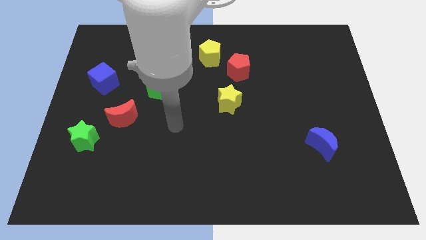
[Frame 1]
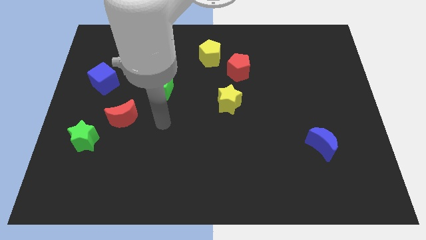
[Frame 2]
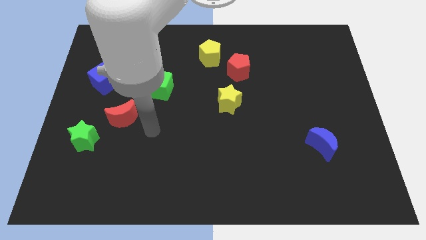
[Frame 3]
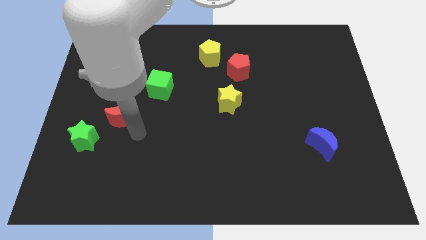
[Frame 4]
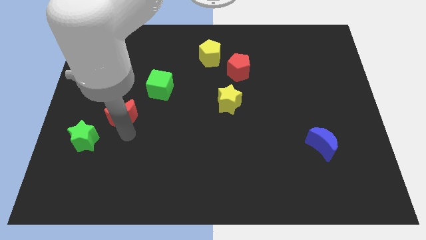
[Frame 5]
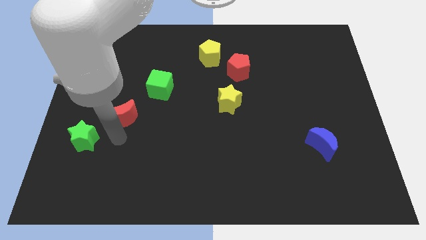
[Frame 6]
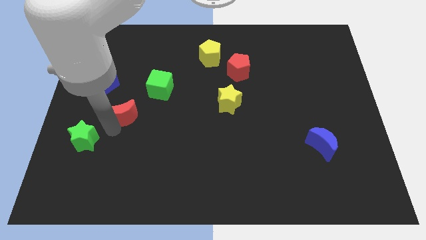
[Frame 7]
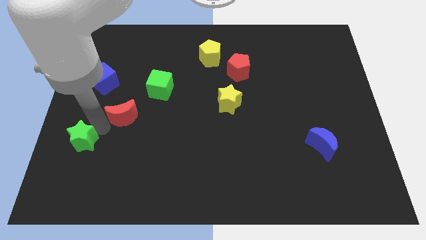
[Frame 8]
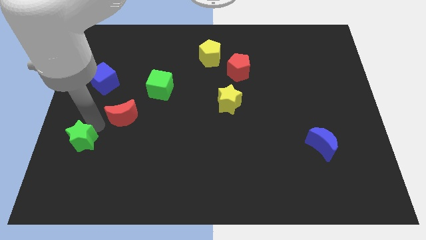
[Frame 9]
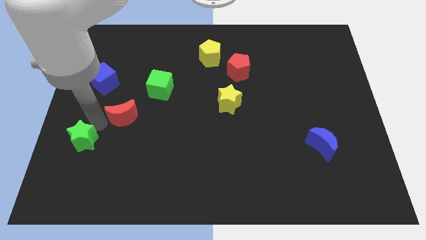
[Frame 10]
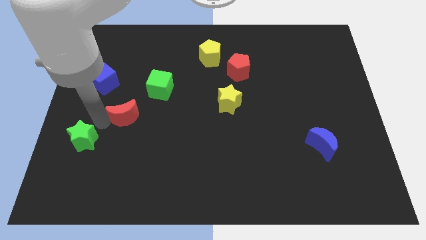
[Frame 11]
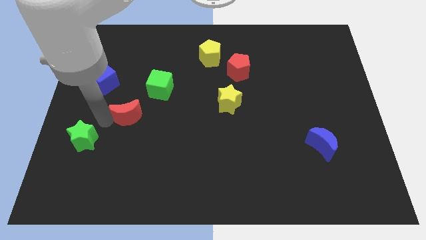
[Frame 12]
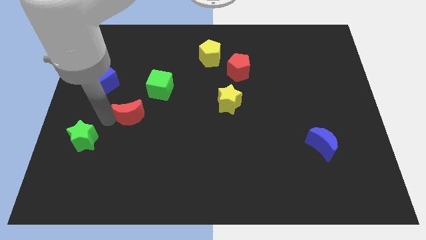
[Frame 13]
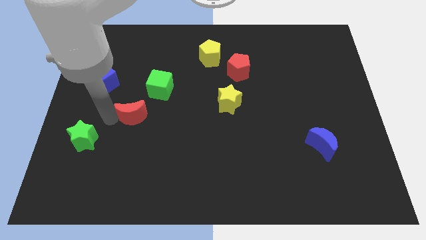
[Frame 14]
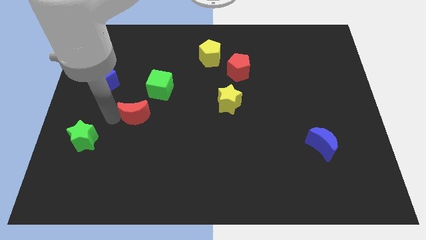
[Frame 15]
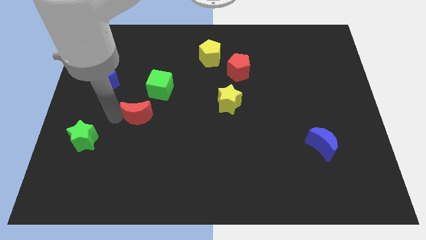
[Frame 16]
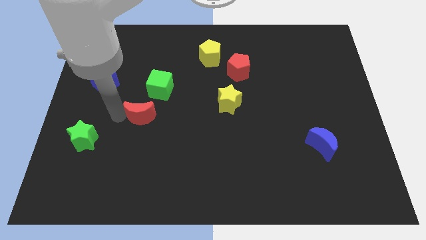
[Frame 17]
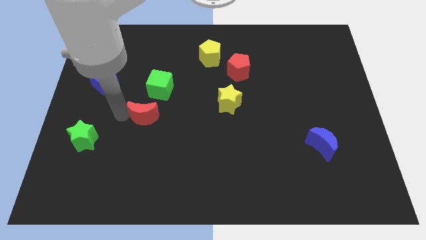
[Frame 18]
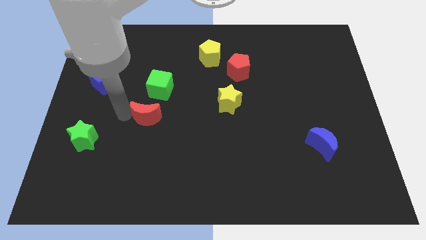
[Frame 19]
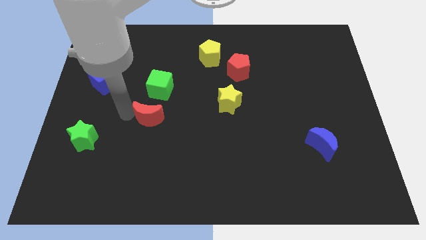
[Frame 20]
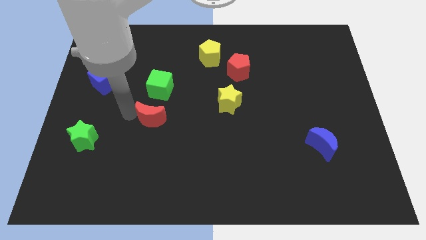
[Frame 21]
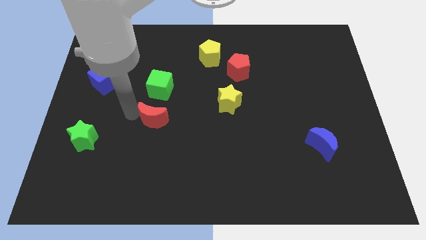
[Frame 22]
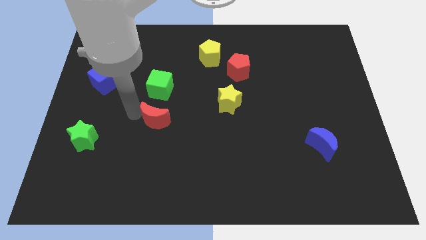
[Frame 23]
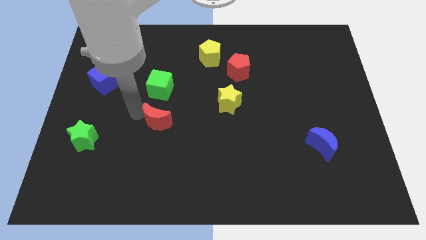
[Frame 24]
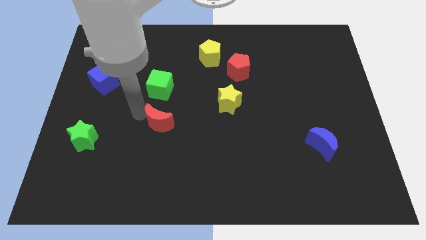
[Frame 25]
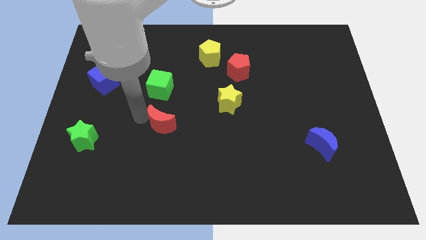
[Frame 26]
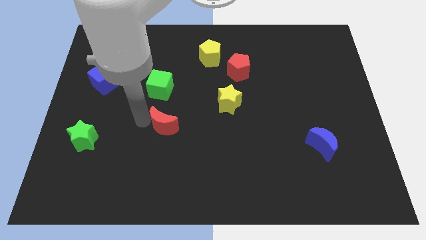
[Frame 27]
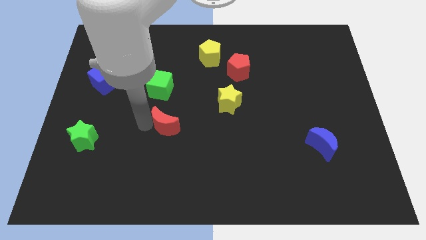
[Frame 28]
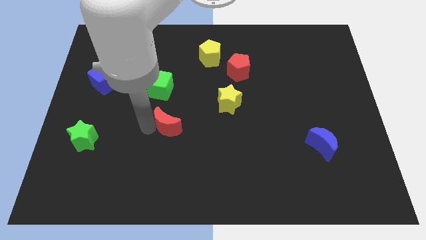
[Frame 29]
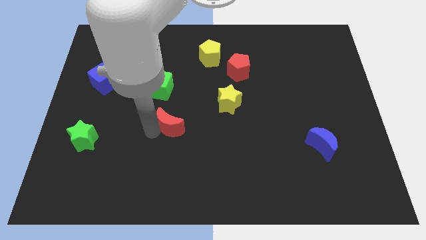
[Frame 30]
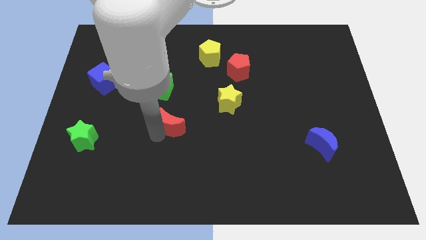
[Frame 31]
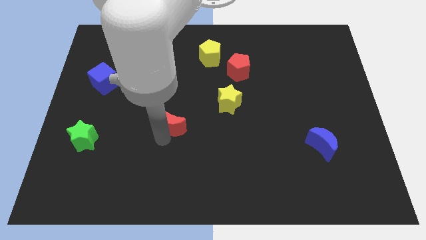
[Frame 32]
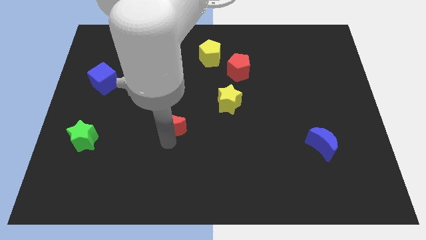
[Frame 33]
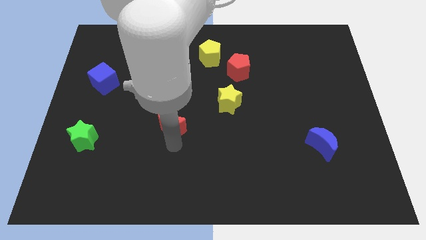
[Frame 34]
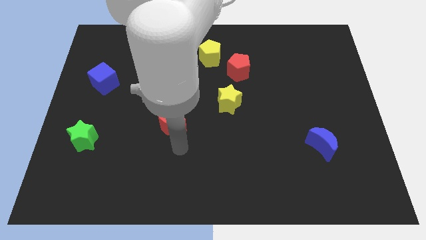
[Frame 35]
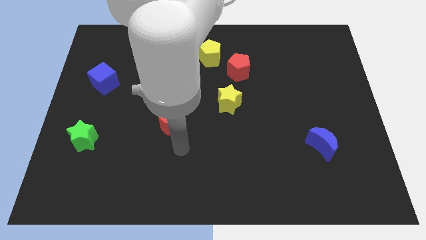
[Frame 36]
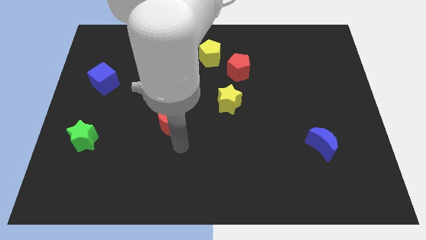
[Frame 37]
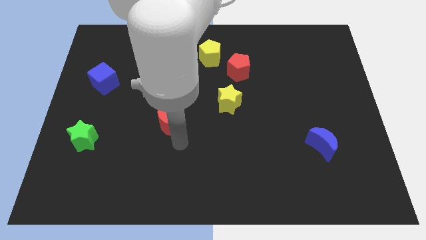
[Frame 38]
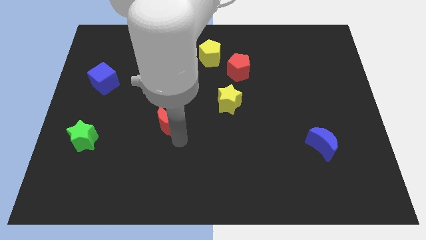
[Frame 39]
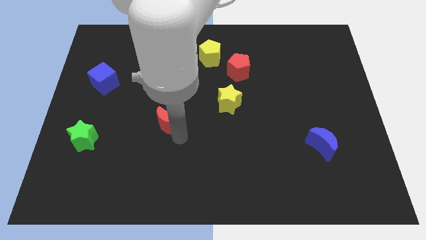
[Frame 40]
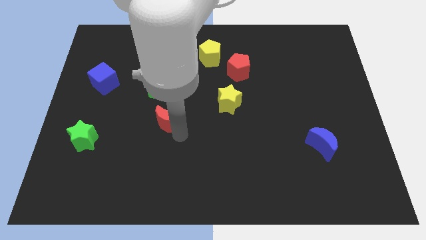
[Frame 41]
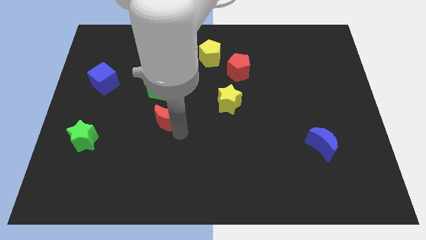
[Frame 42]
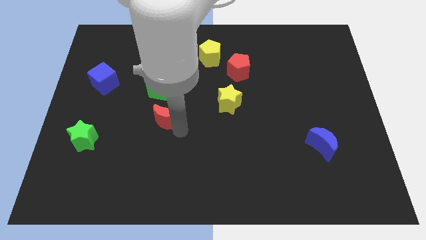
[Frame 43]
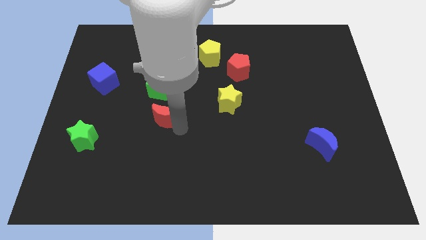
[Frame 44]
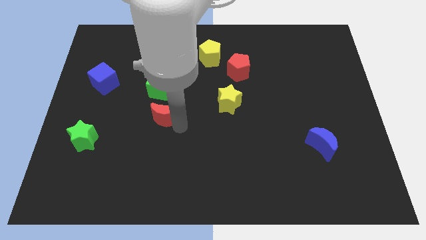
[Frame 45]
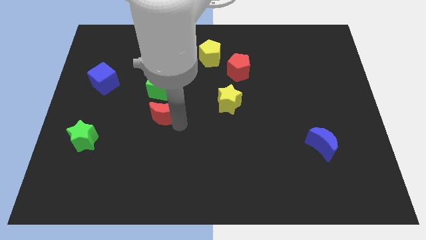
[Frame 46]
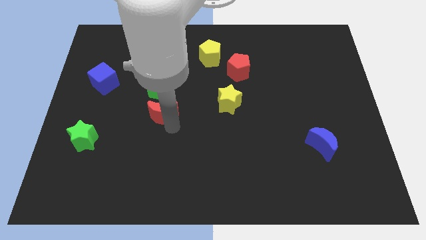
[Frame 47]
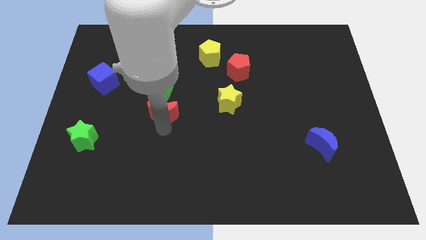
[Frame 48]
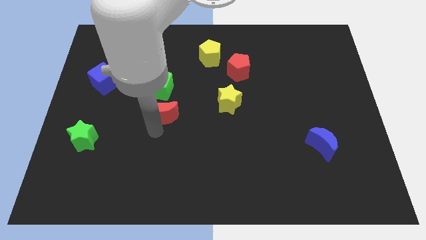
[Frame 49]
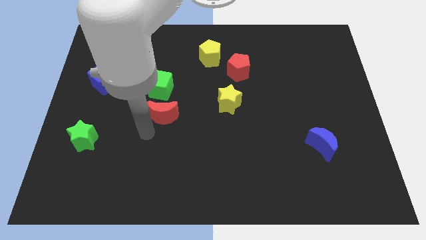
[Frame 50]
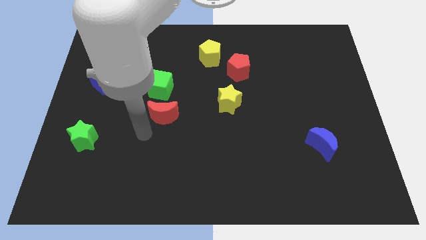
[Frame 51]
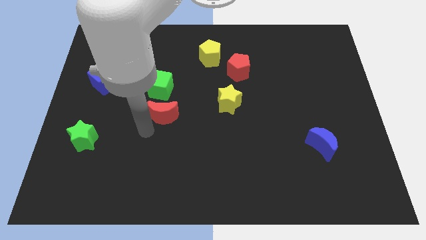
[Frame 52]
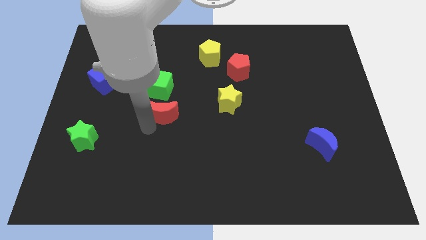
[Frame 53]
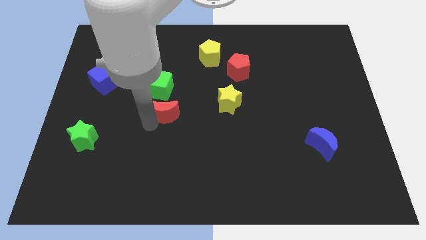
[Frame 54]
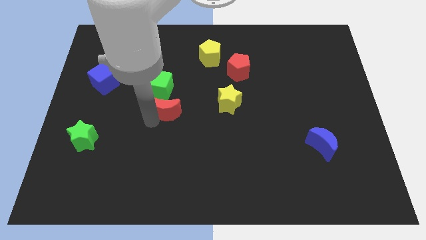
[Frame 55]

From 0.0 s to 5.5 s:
move the red moon up and then right slightly

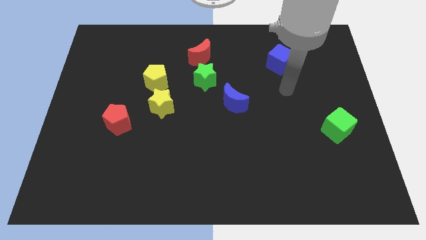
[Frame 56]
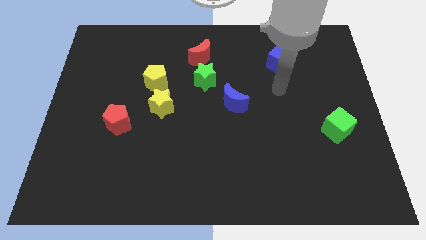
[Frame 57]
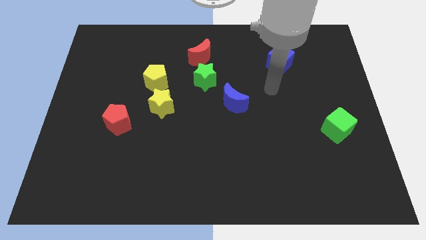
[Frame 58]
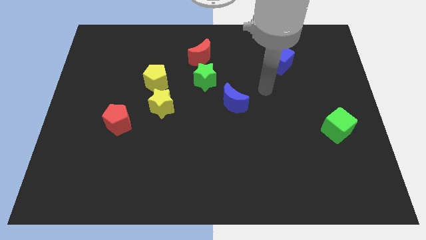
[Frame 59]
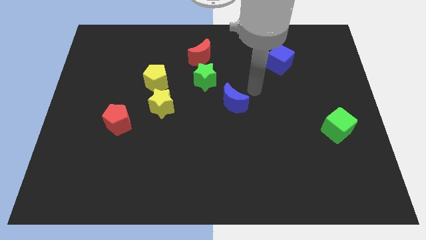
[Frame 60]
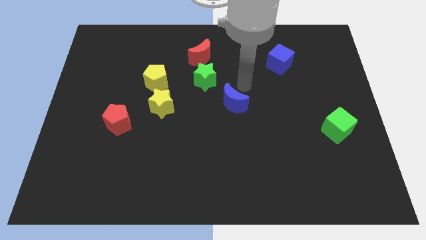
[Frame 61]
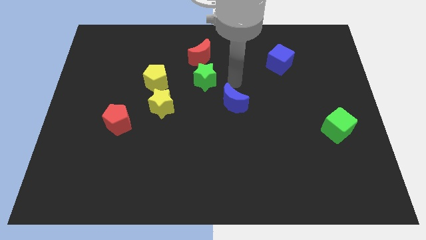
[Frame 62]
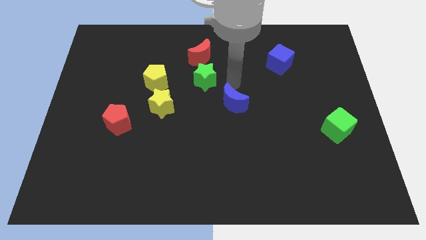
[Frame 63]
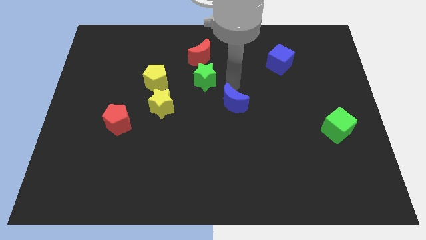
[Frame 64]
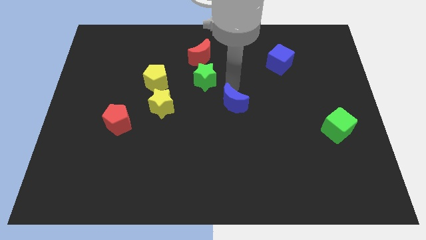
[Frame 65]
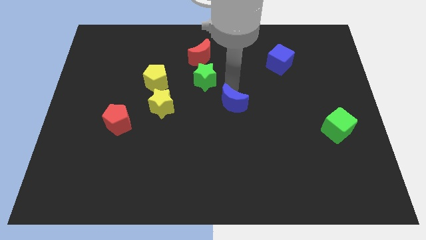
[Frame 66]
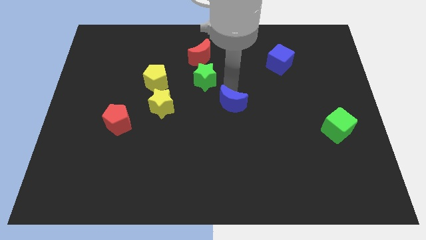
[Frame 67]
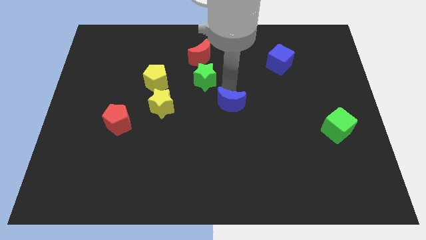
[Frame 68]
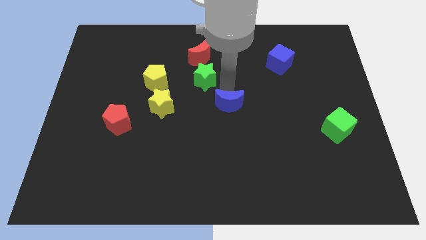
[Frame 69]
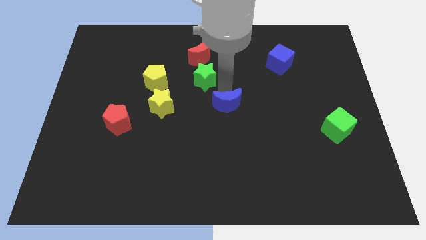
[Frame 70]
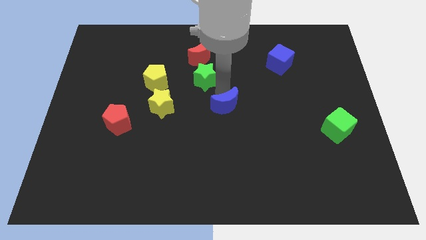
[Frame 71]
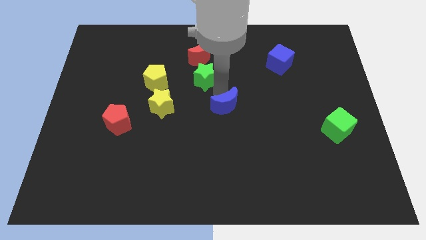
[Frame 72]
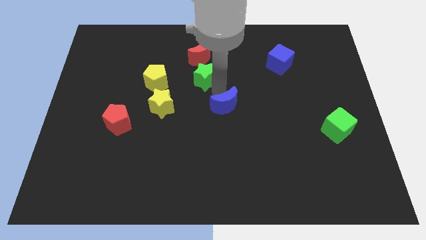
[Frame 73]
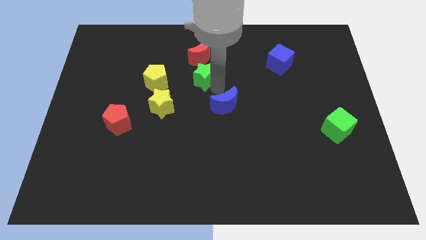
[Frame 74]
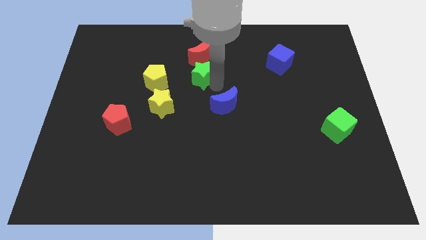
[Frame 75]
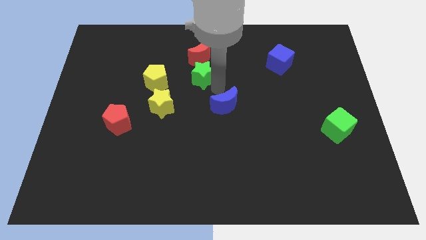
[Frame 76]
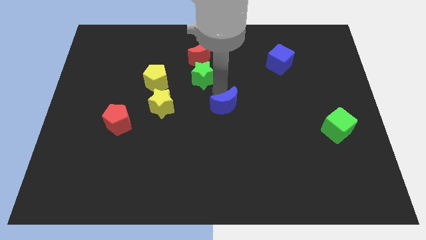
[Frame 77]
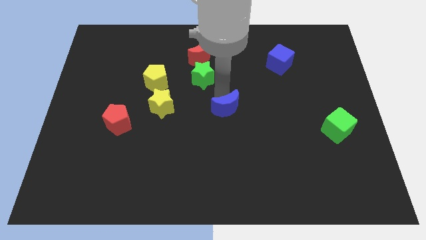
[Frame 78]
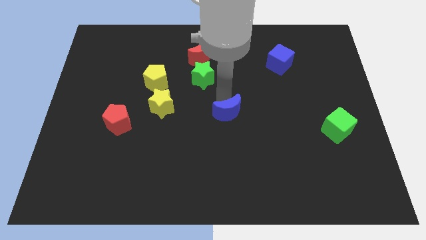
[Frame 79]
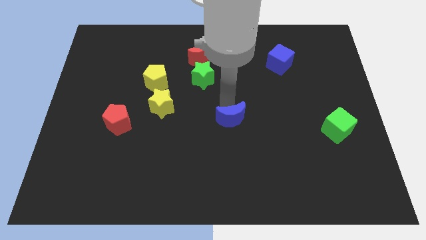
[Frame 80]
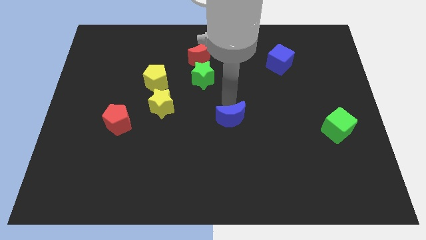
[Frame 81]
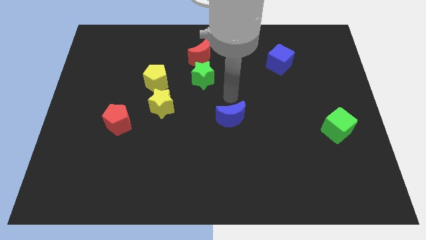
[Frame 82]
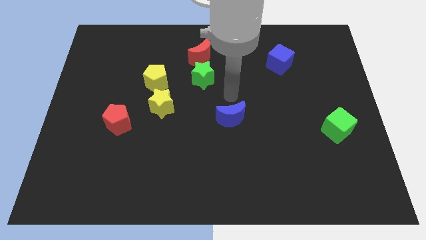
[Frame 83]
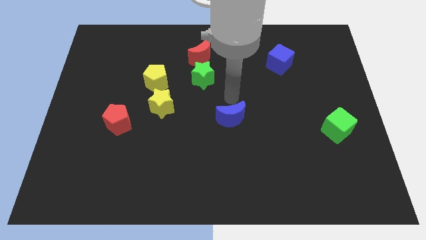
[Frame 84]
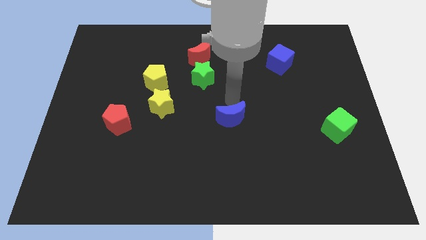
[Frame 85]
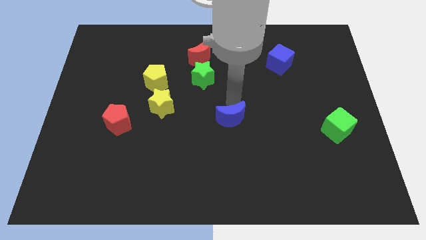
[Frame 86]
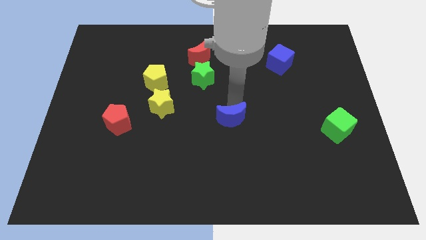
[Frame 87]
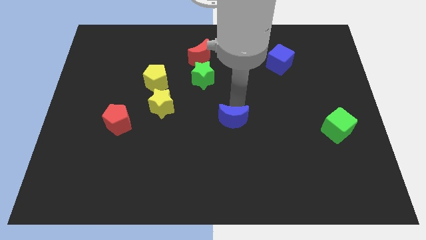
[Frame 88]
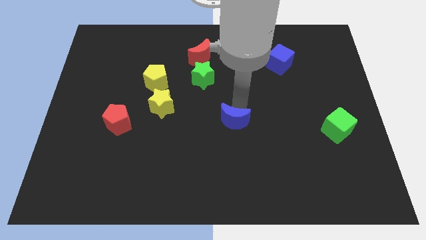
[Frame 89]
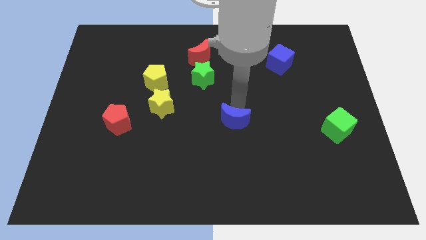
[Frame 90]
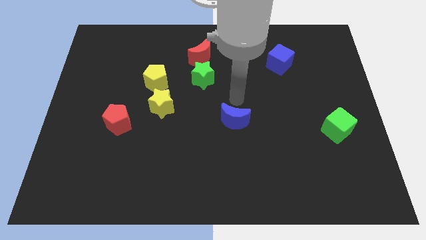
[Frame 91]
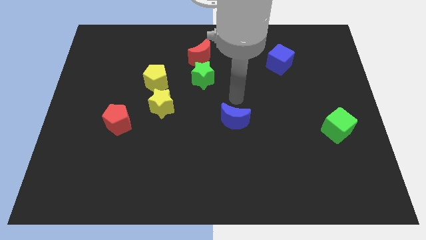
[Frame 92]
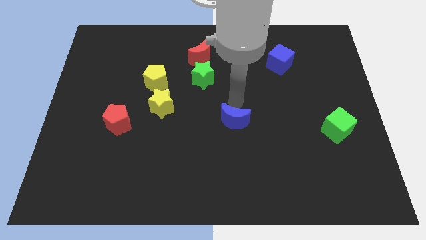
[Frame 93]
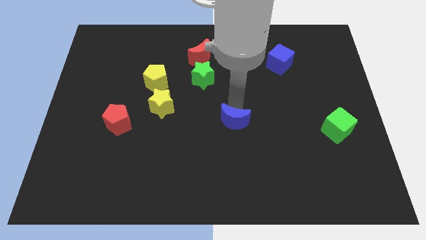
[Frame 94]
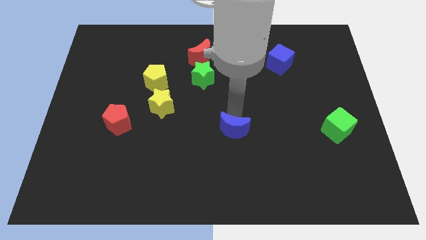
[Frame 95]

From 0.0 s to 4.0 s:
slide the blue moon down somewhat
